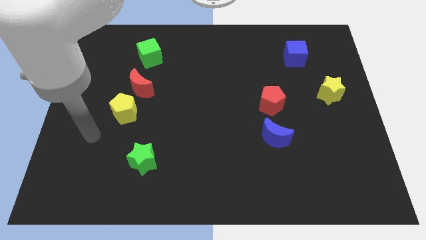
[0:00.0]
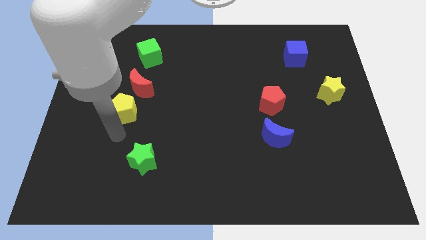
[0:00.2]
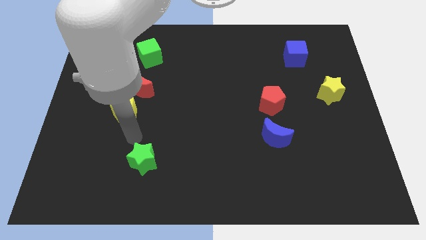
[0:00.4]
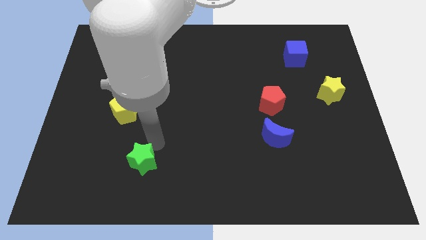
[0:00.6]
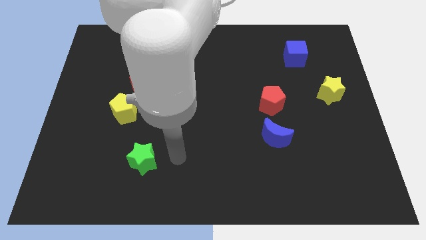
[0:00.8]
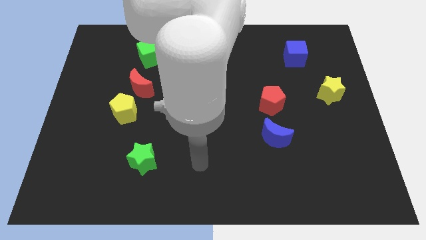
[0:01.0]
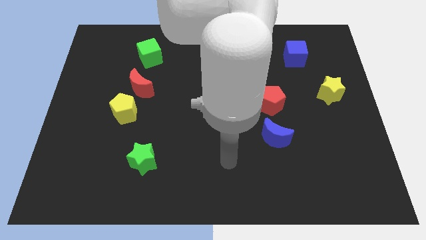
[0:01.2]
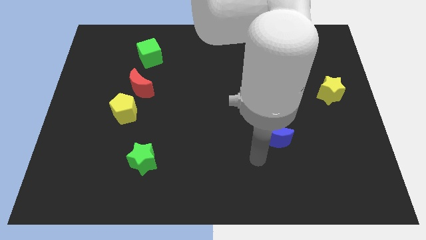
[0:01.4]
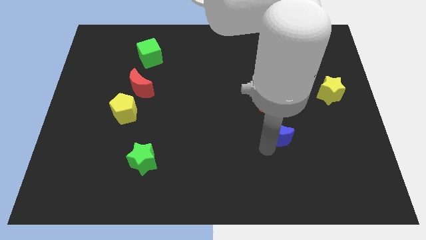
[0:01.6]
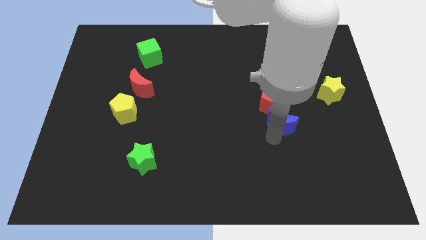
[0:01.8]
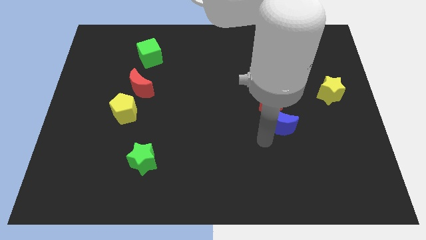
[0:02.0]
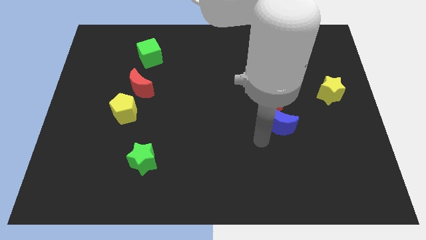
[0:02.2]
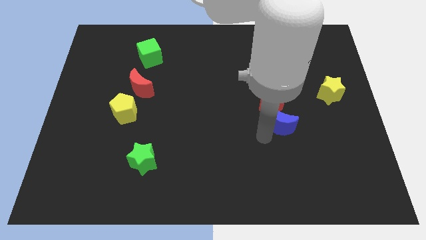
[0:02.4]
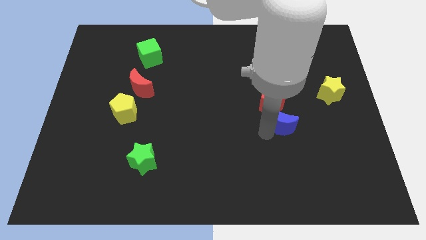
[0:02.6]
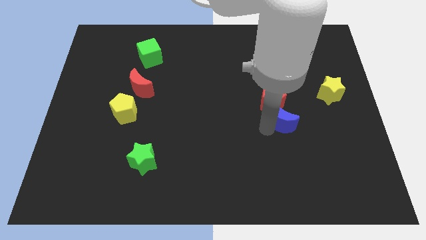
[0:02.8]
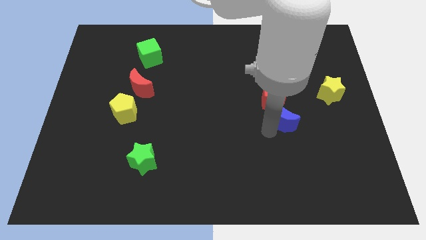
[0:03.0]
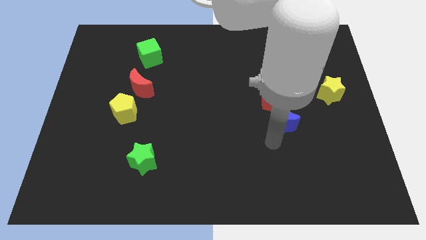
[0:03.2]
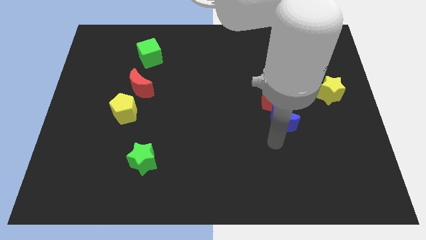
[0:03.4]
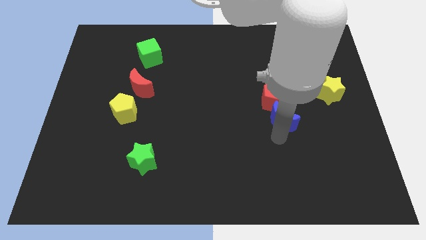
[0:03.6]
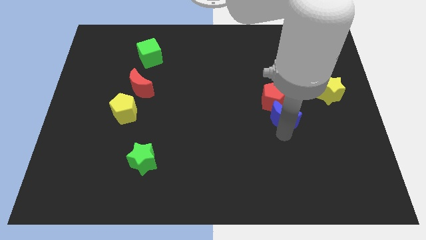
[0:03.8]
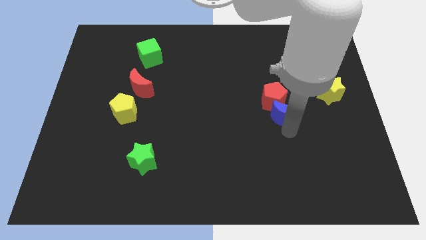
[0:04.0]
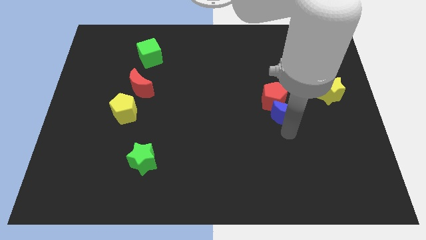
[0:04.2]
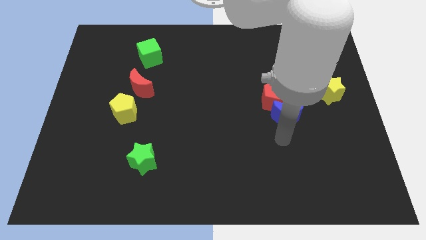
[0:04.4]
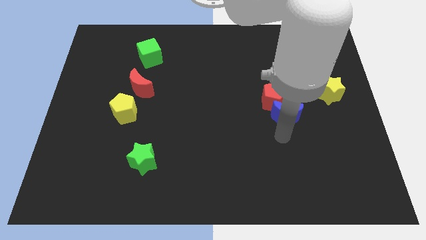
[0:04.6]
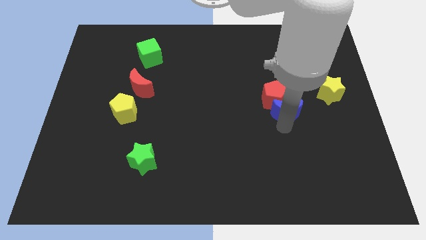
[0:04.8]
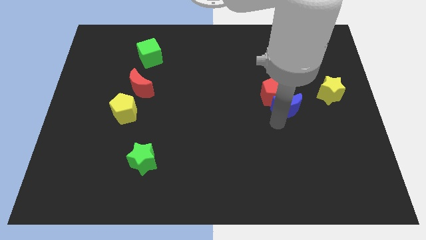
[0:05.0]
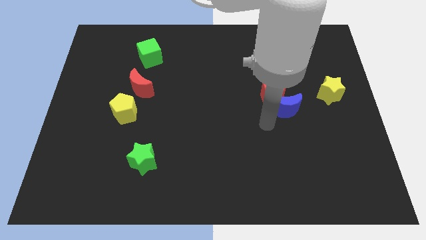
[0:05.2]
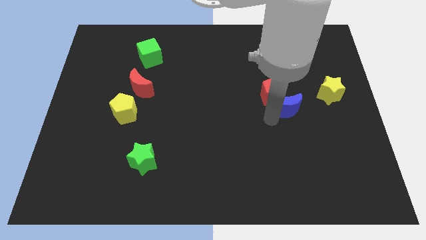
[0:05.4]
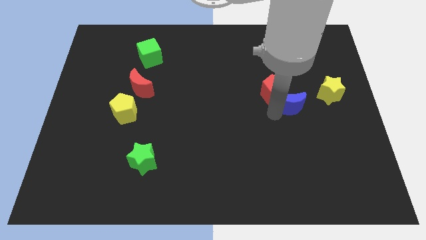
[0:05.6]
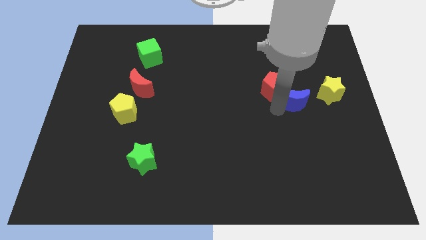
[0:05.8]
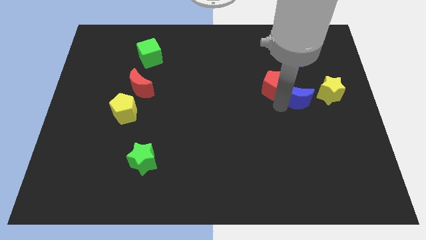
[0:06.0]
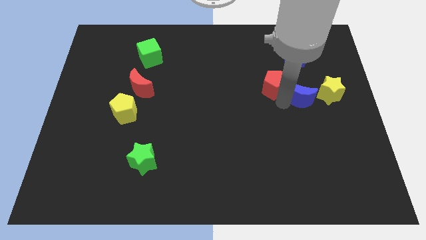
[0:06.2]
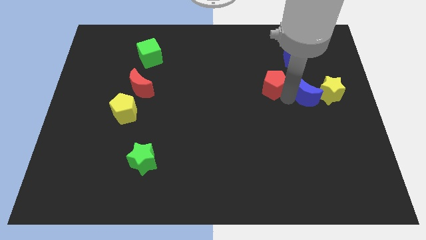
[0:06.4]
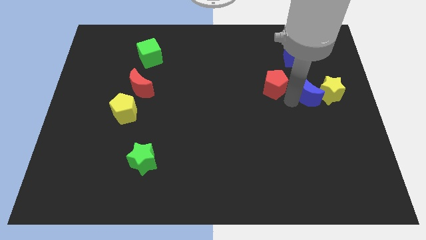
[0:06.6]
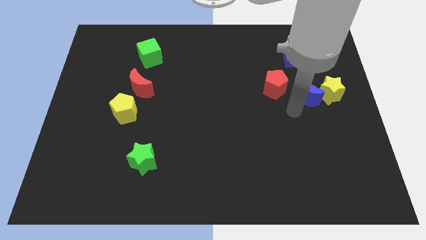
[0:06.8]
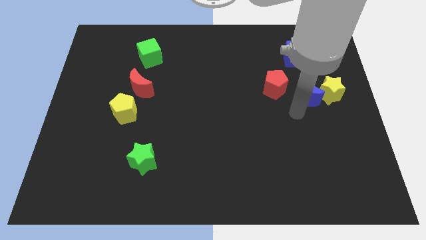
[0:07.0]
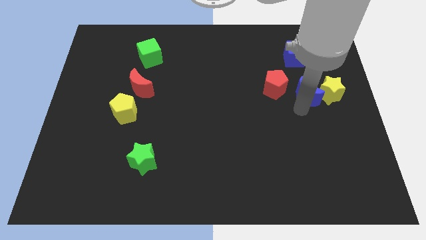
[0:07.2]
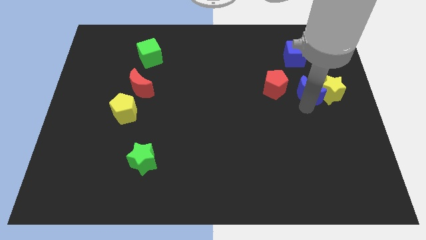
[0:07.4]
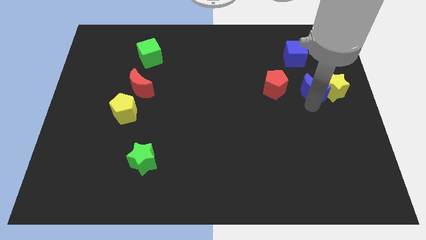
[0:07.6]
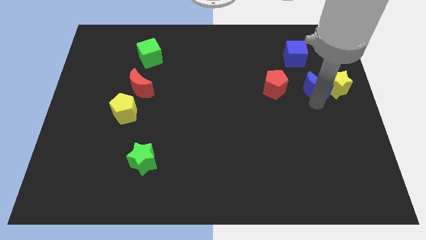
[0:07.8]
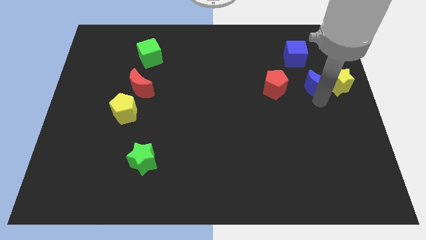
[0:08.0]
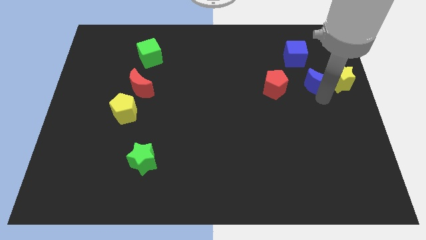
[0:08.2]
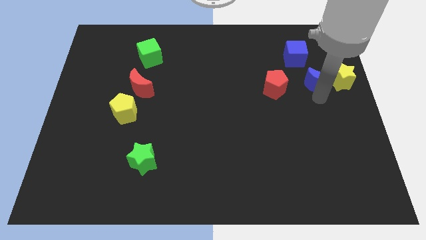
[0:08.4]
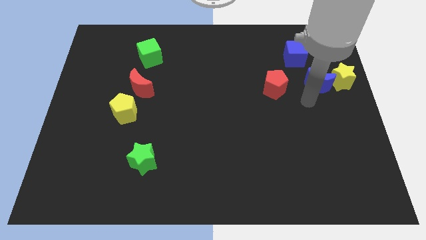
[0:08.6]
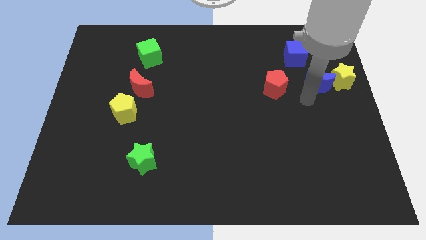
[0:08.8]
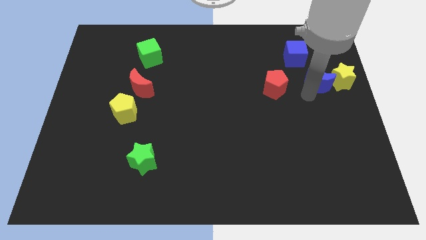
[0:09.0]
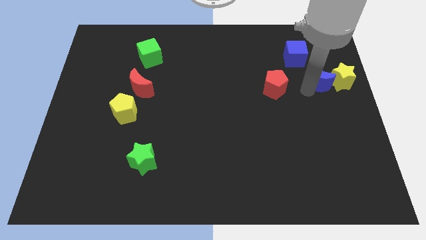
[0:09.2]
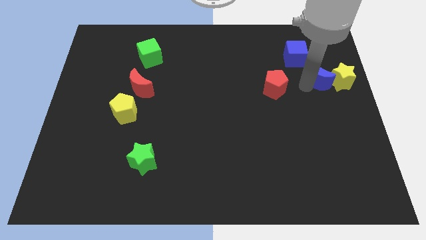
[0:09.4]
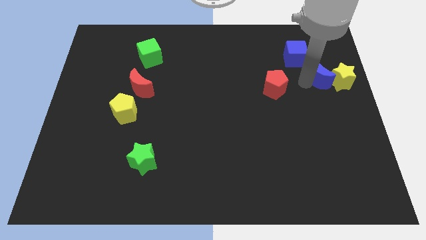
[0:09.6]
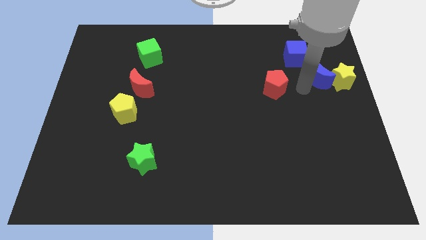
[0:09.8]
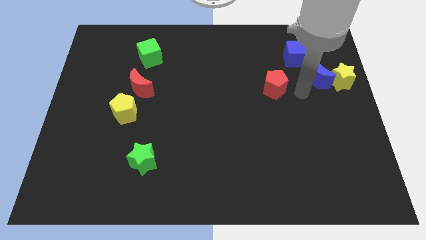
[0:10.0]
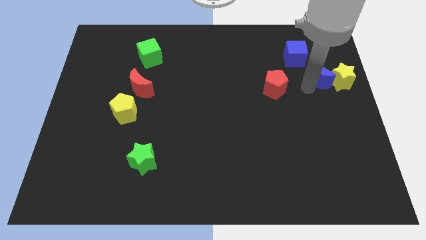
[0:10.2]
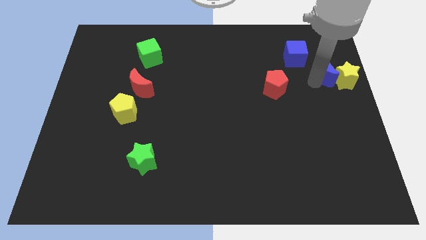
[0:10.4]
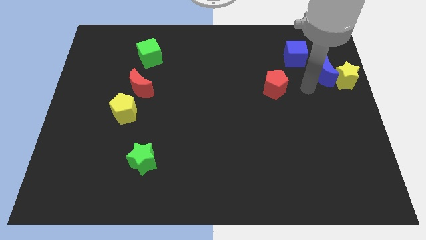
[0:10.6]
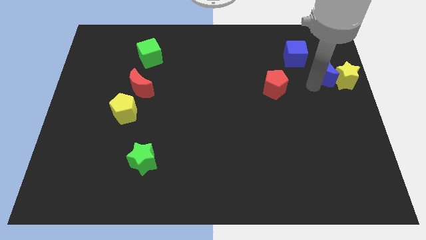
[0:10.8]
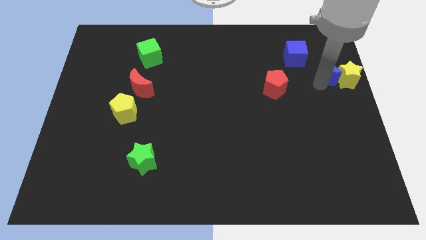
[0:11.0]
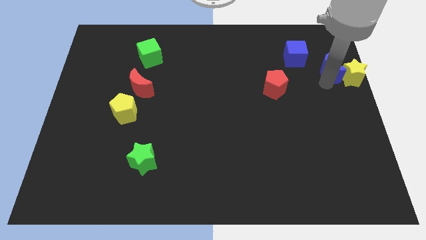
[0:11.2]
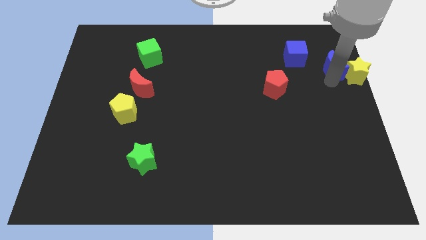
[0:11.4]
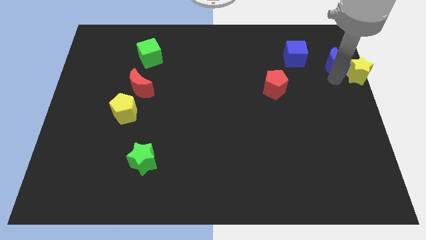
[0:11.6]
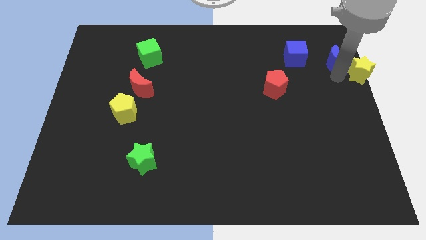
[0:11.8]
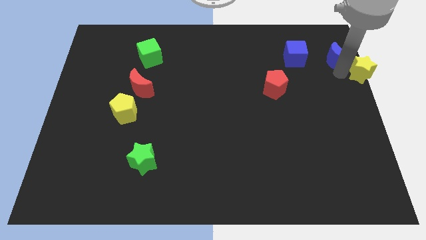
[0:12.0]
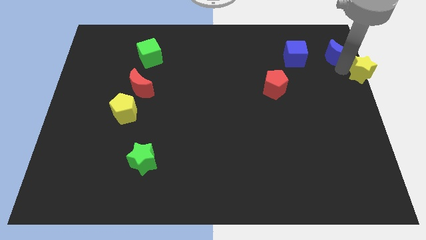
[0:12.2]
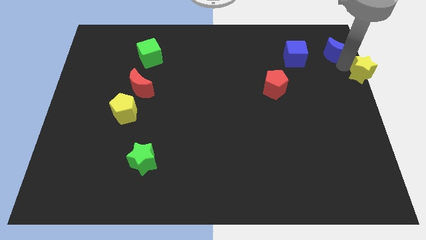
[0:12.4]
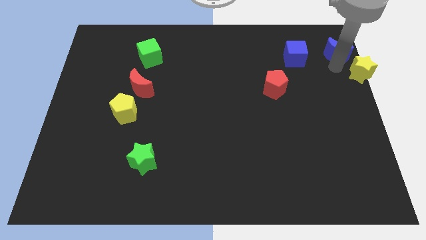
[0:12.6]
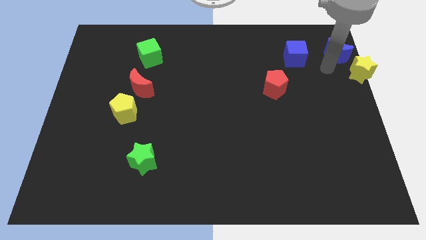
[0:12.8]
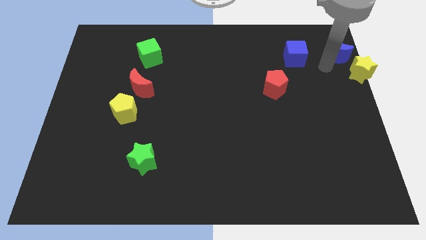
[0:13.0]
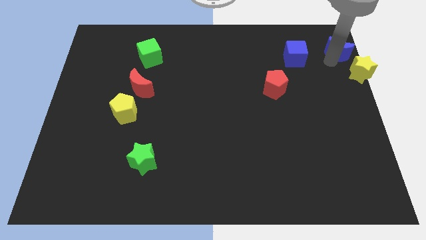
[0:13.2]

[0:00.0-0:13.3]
move the blue moon to the top right corner
